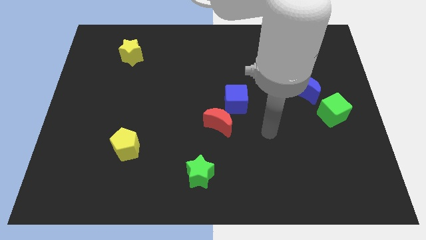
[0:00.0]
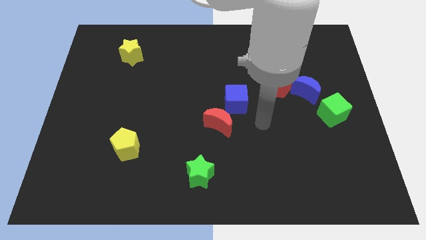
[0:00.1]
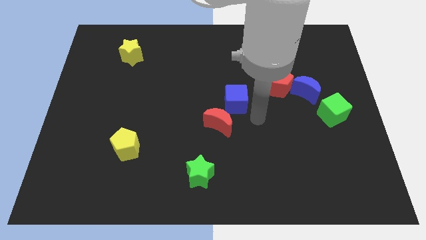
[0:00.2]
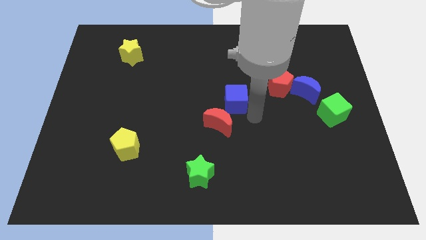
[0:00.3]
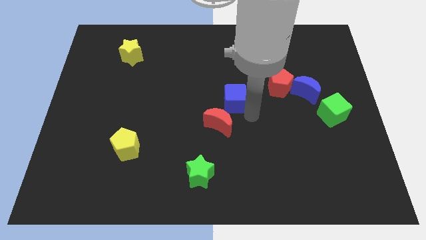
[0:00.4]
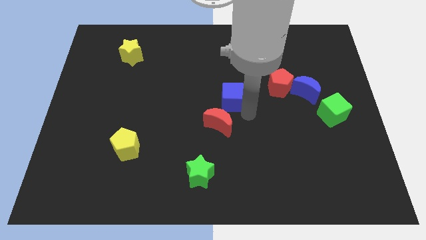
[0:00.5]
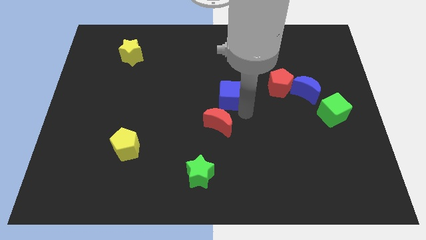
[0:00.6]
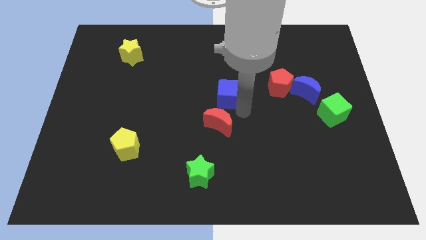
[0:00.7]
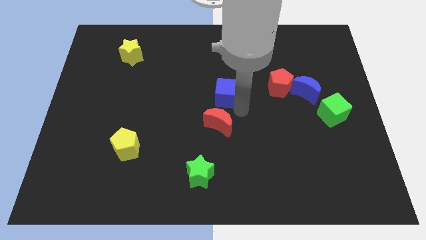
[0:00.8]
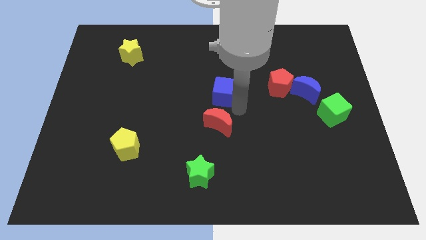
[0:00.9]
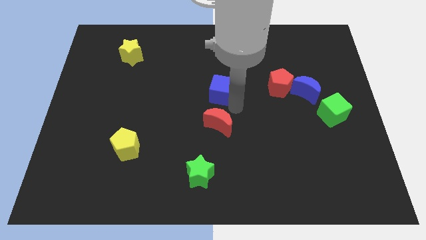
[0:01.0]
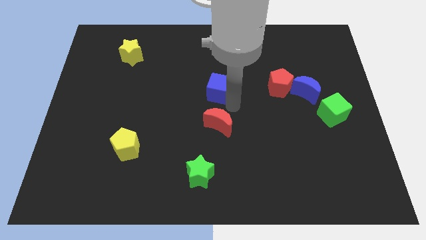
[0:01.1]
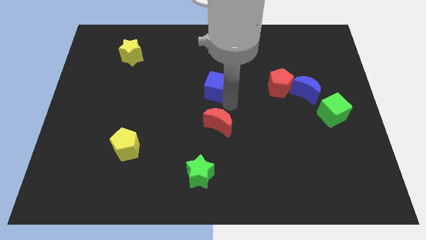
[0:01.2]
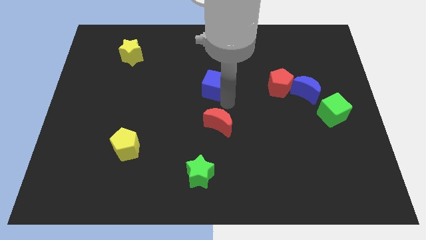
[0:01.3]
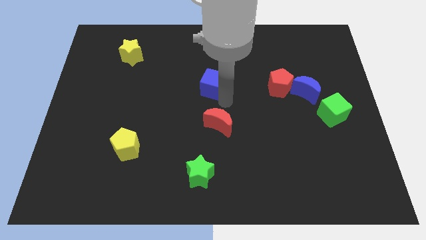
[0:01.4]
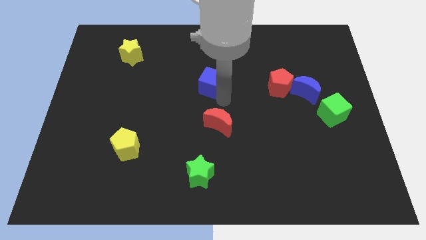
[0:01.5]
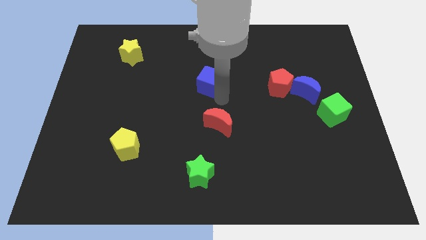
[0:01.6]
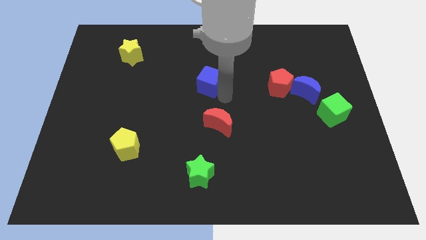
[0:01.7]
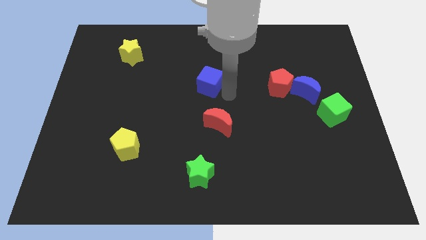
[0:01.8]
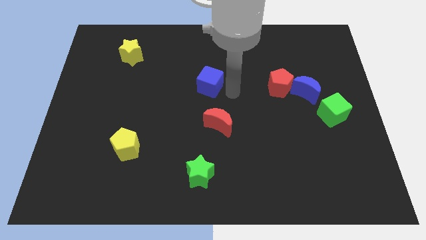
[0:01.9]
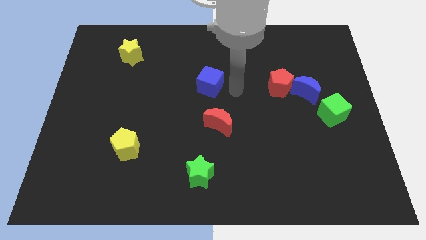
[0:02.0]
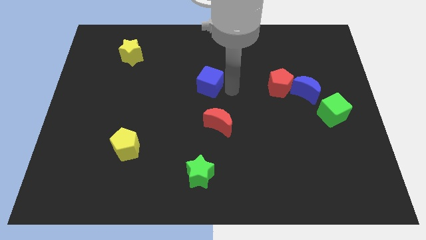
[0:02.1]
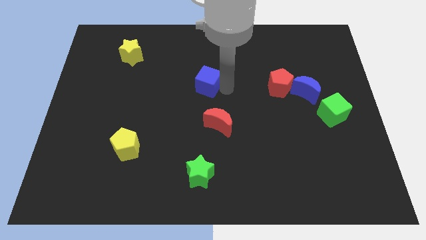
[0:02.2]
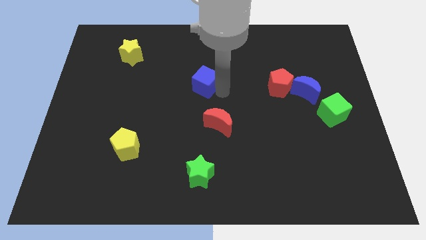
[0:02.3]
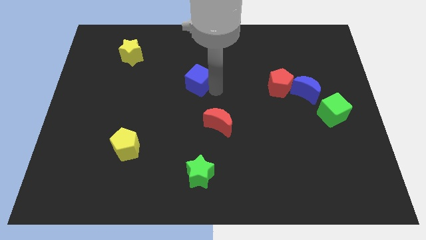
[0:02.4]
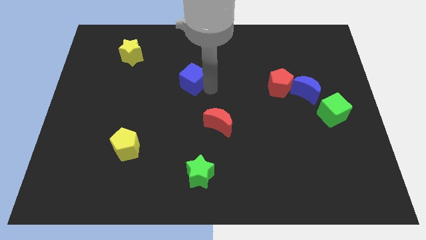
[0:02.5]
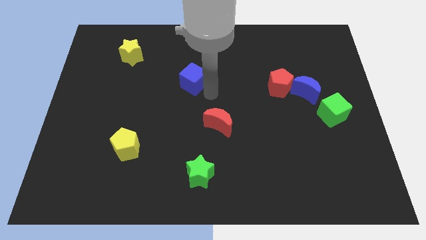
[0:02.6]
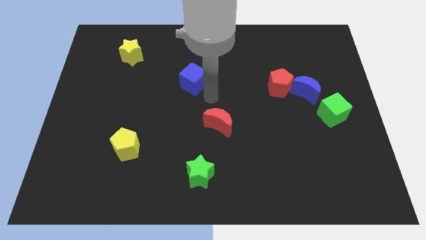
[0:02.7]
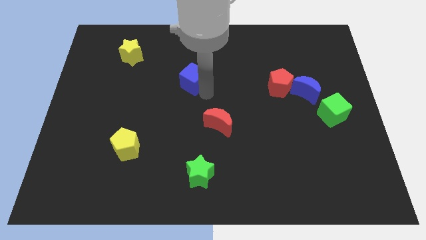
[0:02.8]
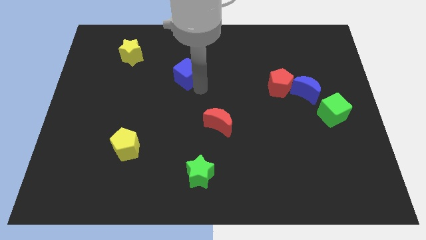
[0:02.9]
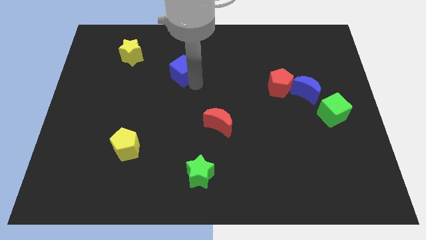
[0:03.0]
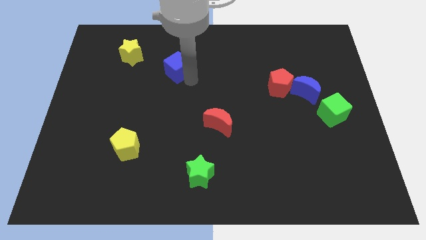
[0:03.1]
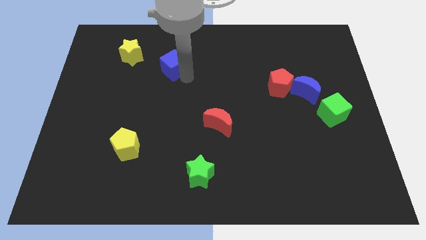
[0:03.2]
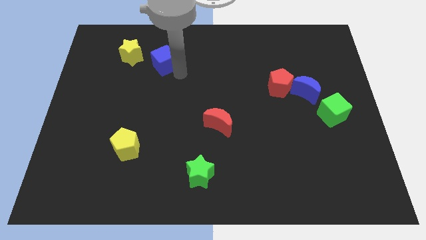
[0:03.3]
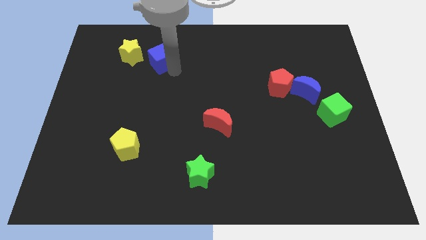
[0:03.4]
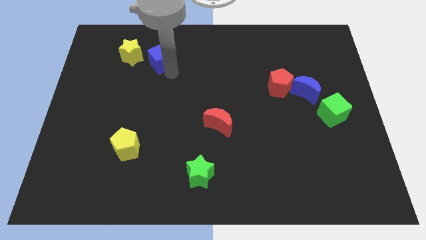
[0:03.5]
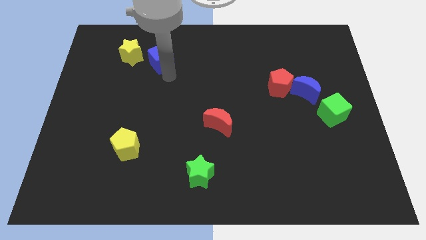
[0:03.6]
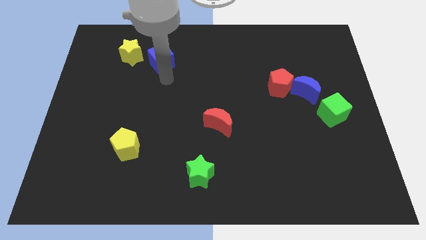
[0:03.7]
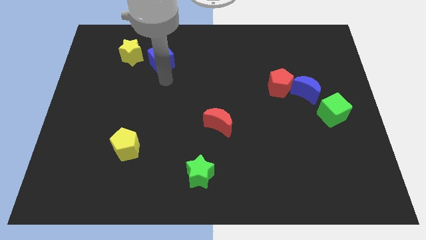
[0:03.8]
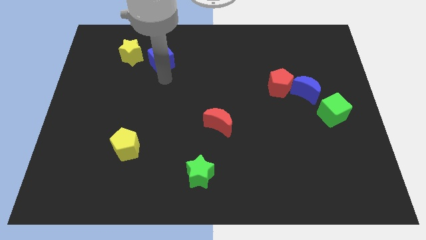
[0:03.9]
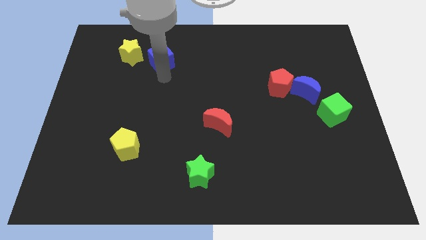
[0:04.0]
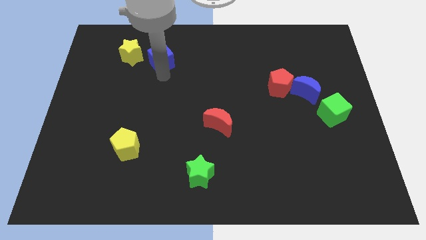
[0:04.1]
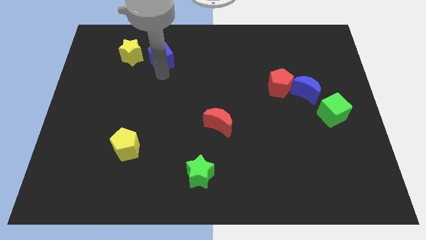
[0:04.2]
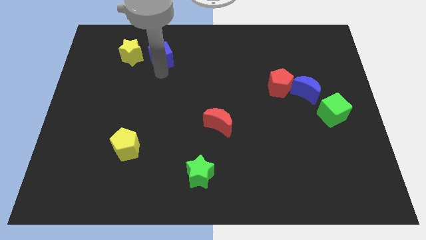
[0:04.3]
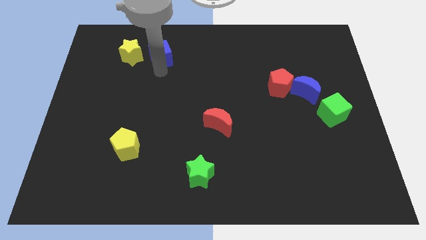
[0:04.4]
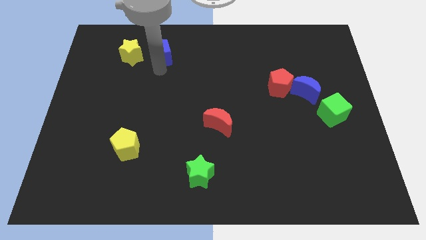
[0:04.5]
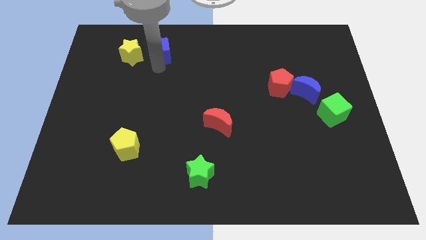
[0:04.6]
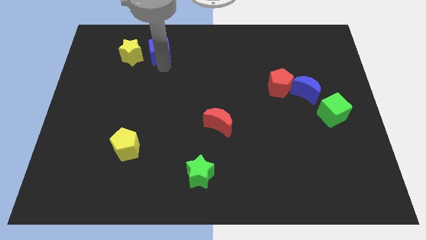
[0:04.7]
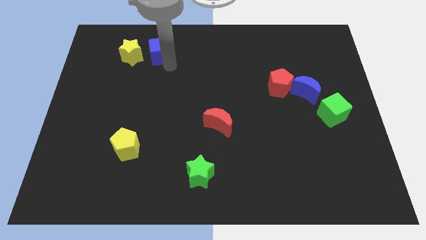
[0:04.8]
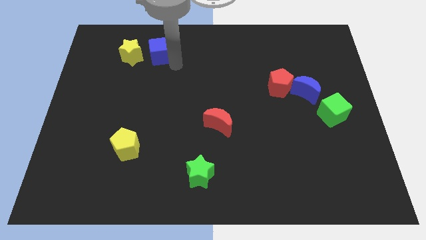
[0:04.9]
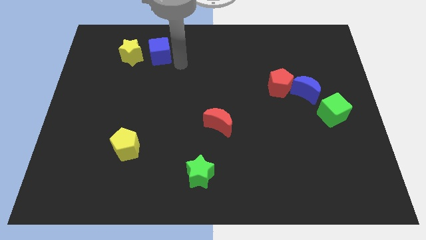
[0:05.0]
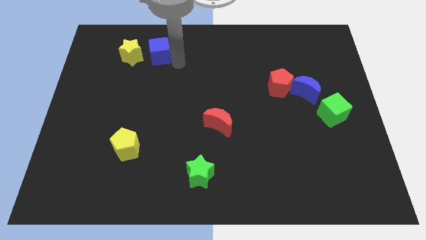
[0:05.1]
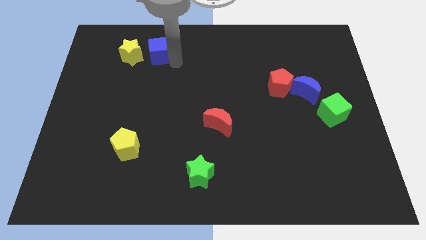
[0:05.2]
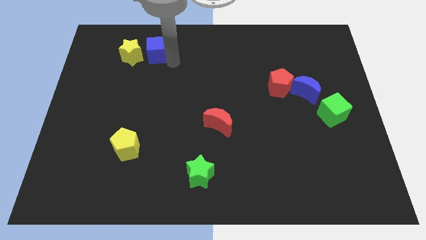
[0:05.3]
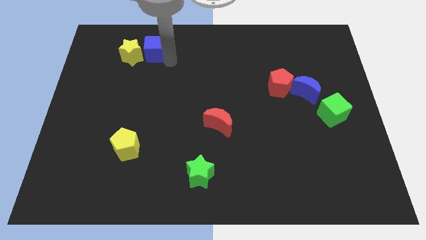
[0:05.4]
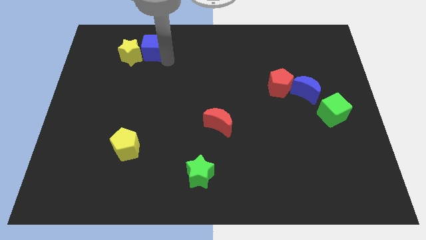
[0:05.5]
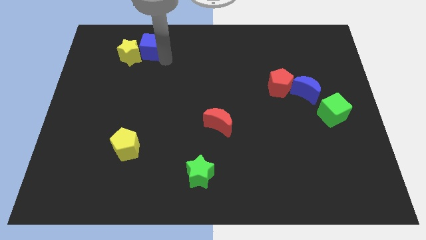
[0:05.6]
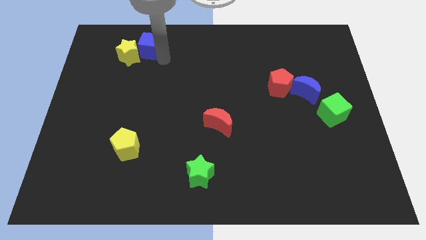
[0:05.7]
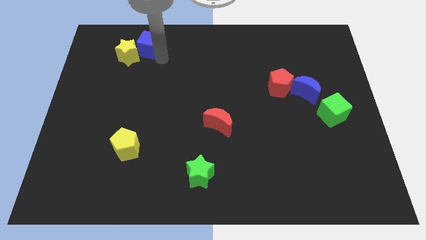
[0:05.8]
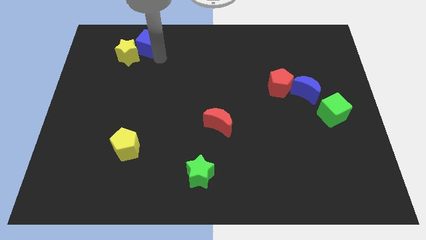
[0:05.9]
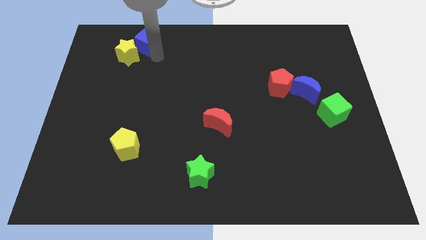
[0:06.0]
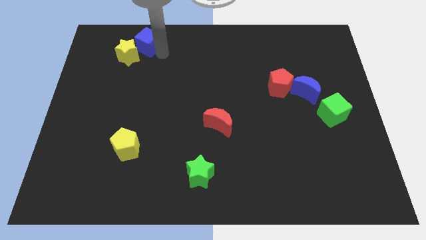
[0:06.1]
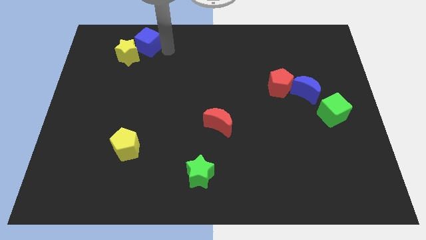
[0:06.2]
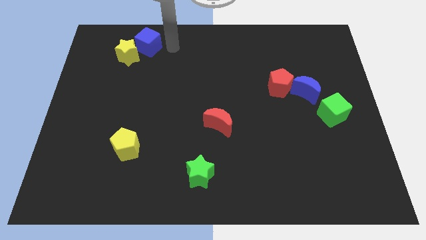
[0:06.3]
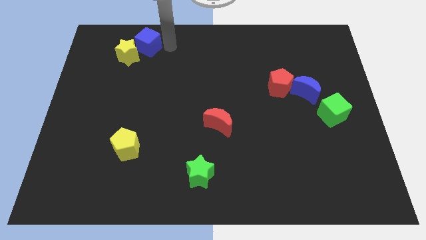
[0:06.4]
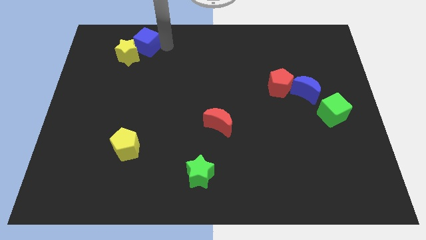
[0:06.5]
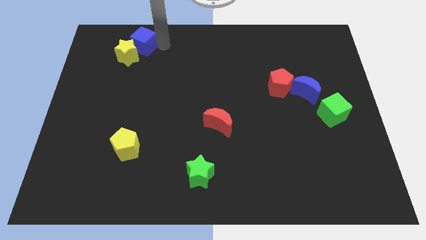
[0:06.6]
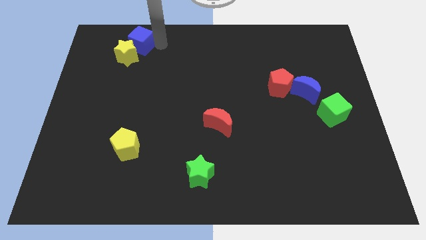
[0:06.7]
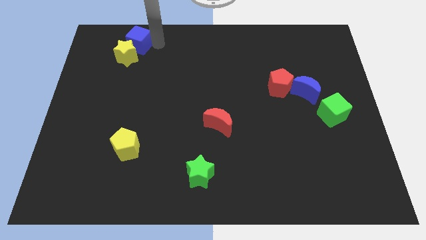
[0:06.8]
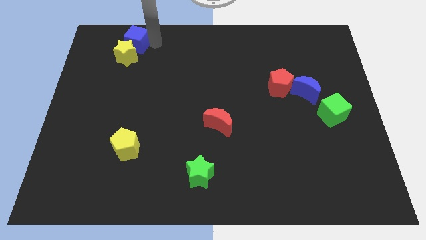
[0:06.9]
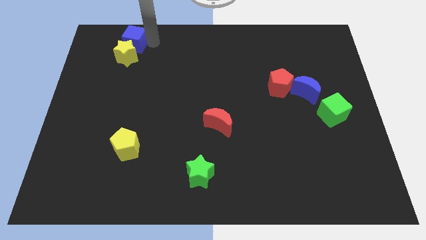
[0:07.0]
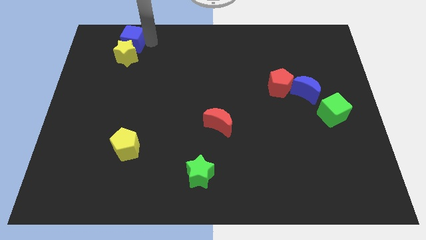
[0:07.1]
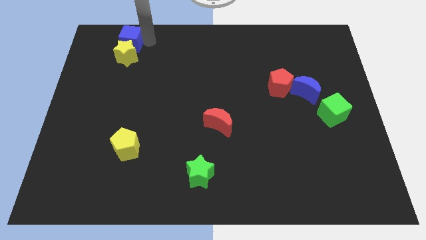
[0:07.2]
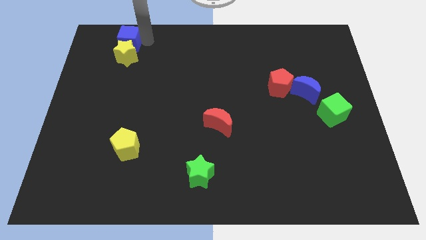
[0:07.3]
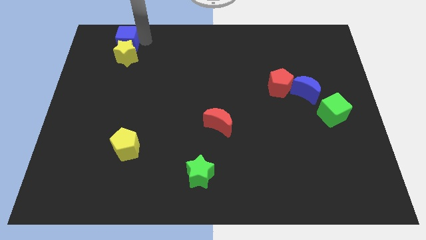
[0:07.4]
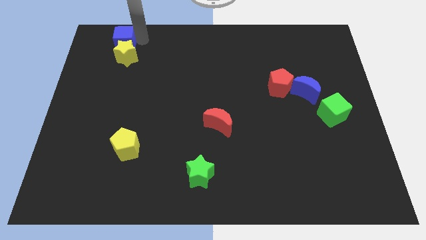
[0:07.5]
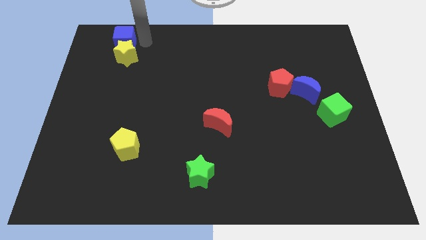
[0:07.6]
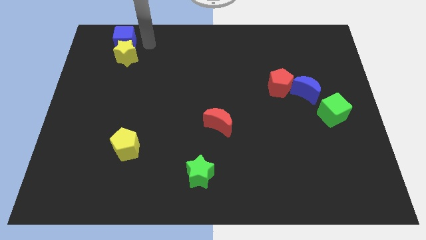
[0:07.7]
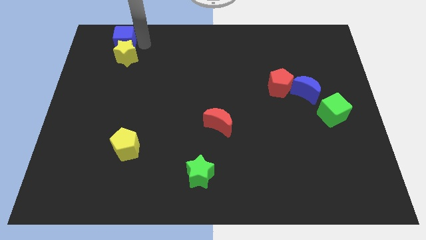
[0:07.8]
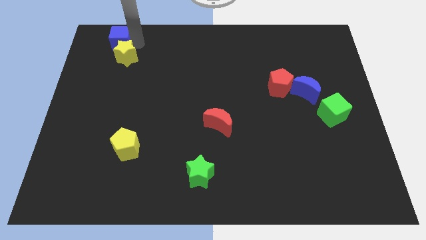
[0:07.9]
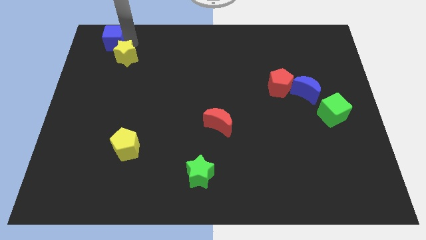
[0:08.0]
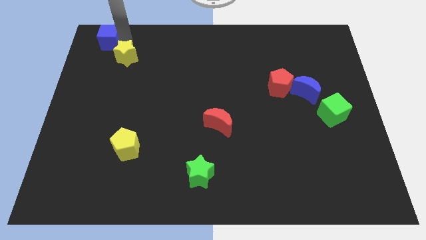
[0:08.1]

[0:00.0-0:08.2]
move the blue cube to the top left
